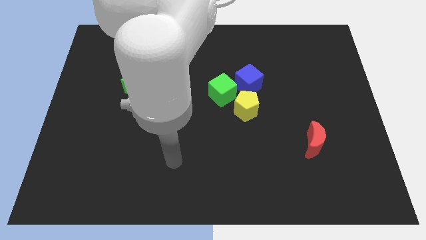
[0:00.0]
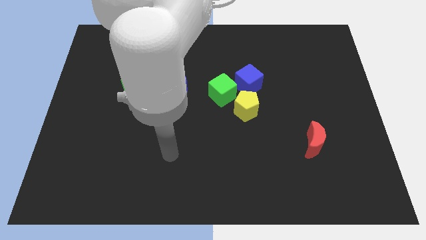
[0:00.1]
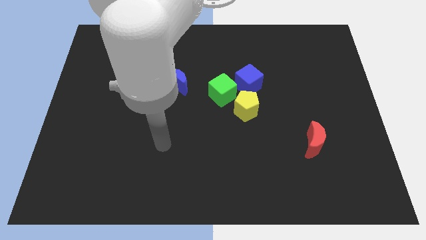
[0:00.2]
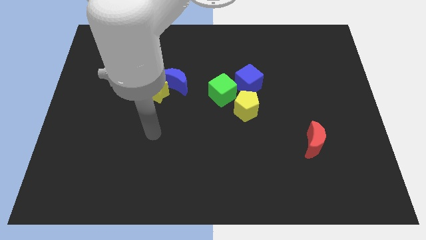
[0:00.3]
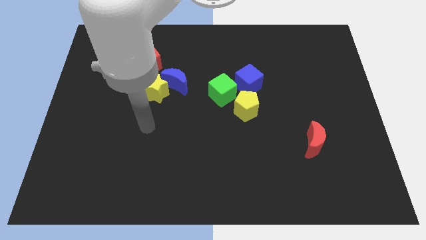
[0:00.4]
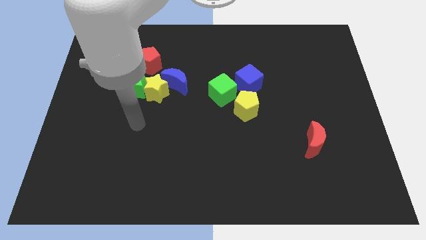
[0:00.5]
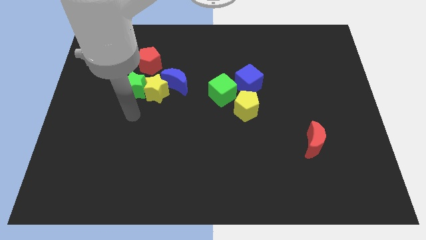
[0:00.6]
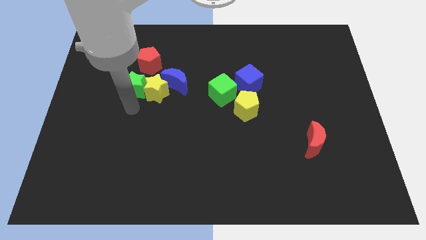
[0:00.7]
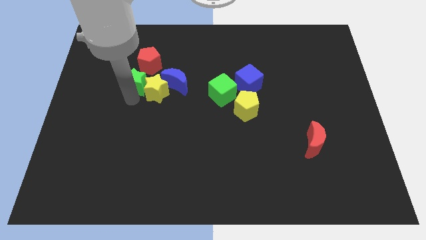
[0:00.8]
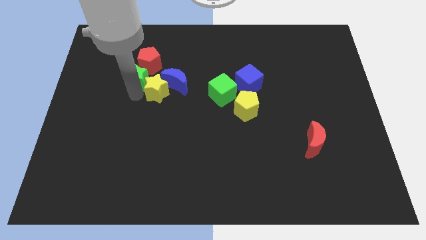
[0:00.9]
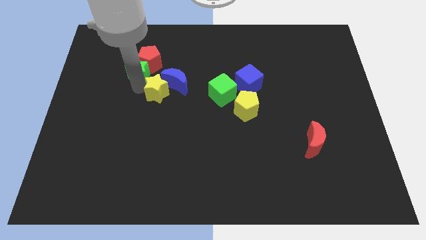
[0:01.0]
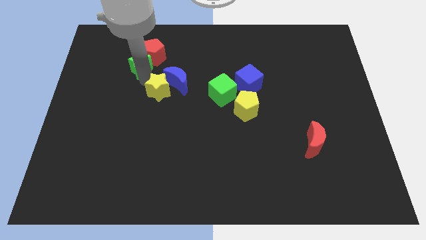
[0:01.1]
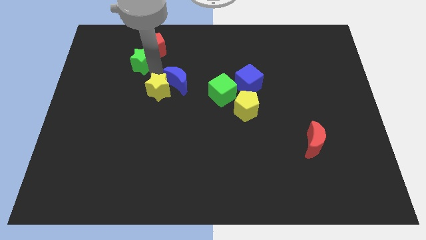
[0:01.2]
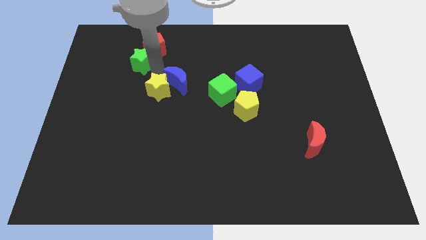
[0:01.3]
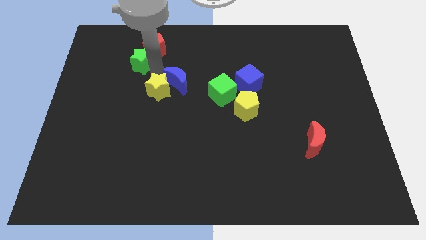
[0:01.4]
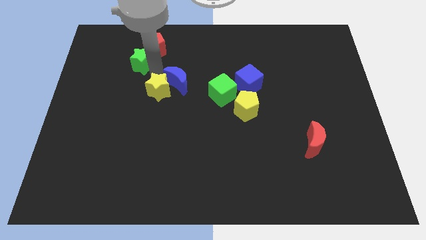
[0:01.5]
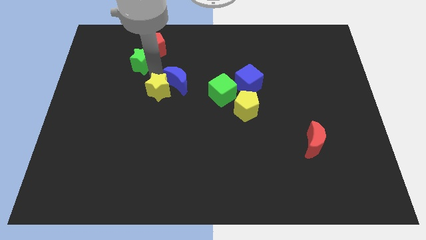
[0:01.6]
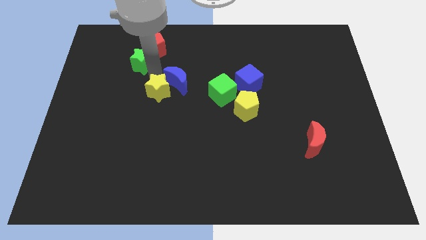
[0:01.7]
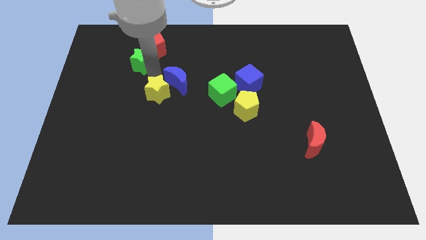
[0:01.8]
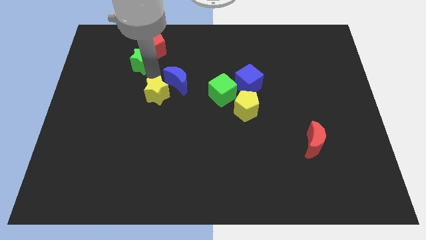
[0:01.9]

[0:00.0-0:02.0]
separate the yellow star from the group of blocks

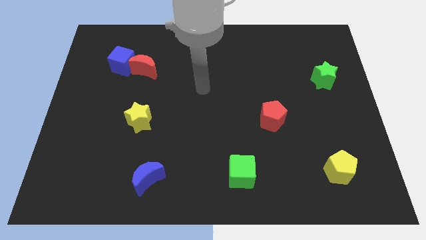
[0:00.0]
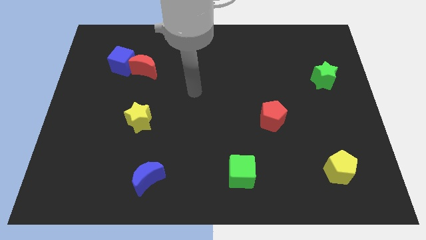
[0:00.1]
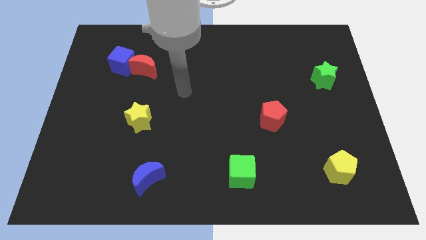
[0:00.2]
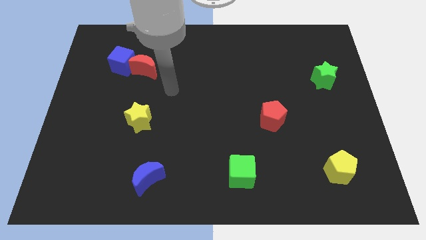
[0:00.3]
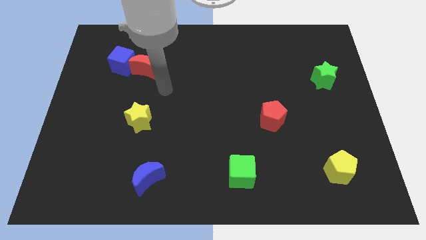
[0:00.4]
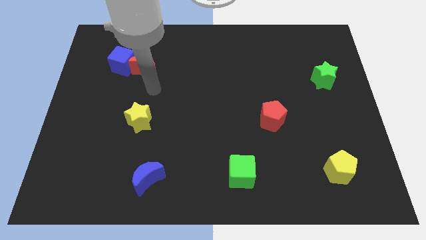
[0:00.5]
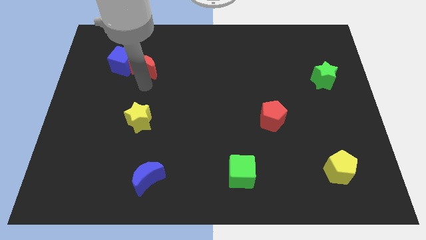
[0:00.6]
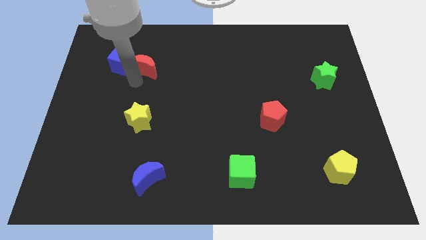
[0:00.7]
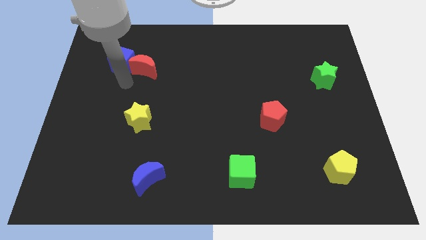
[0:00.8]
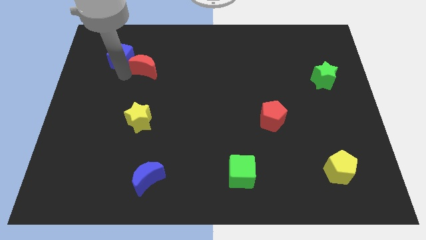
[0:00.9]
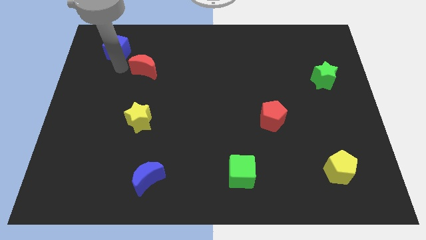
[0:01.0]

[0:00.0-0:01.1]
separate the red moon from the blue cube

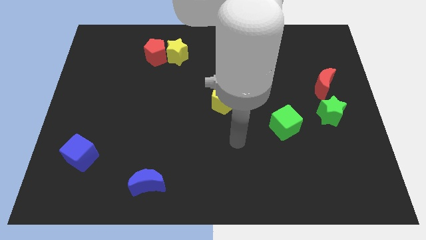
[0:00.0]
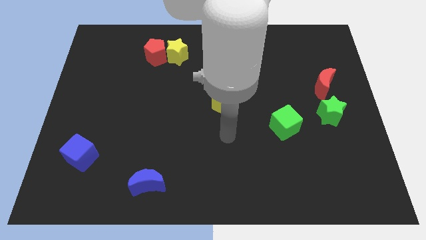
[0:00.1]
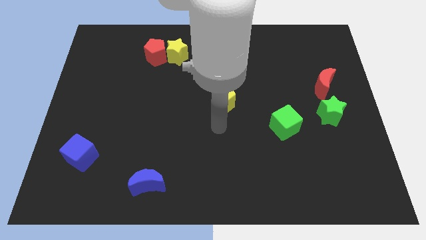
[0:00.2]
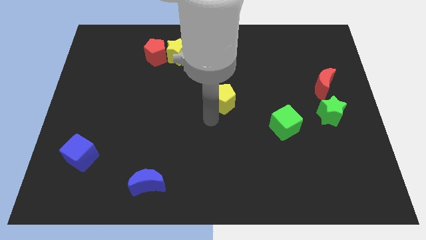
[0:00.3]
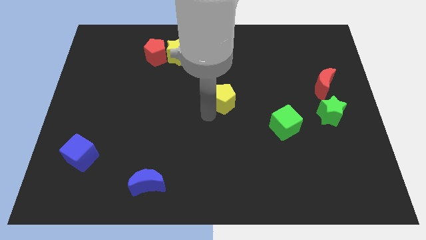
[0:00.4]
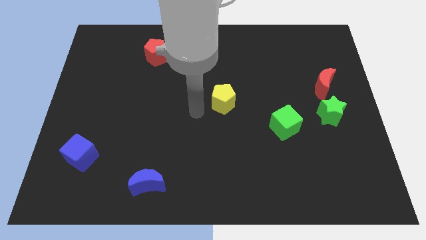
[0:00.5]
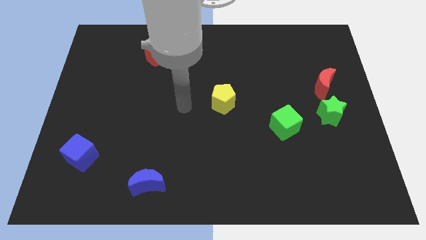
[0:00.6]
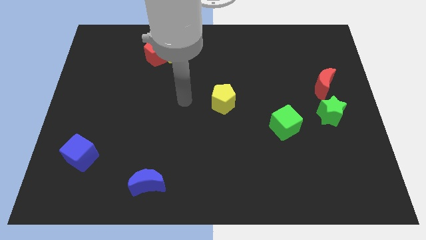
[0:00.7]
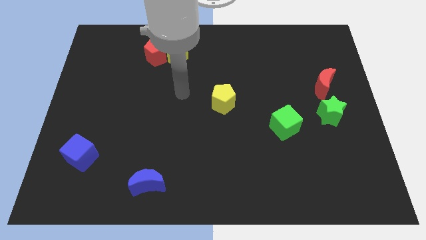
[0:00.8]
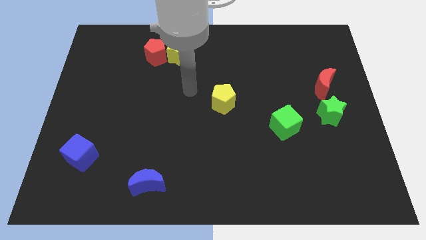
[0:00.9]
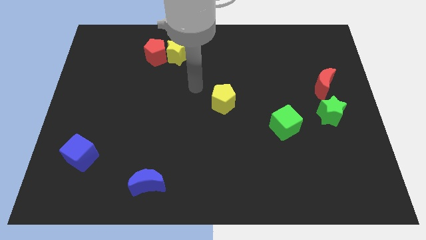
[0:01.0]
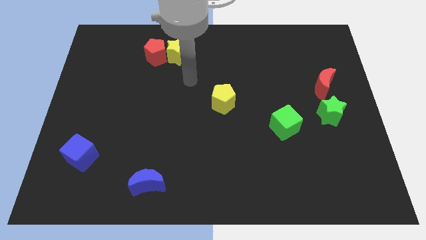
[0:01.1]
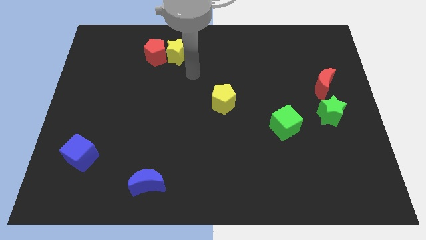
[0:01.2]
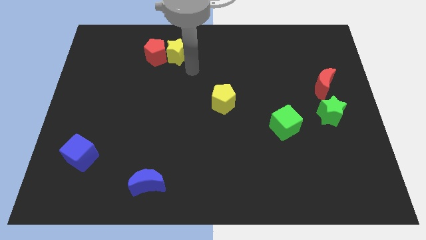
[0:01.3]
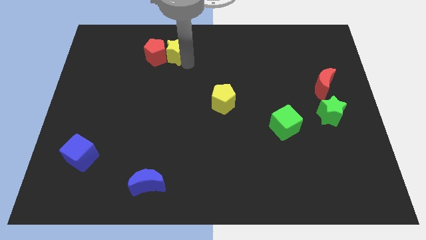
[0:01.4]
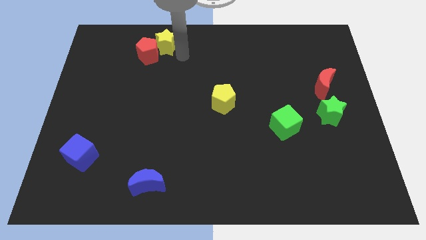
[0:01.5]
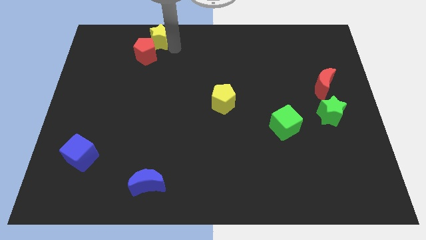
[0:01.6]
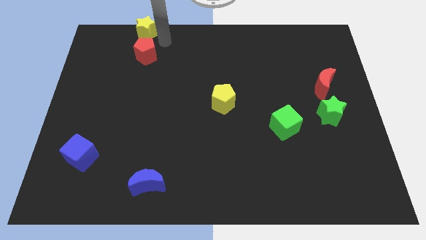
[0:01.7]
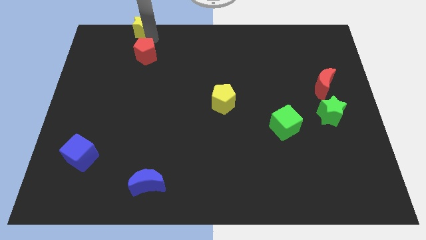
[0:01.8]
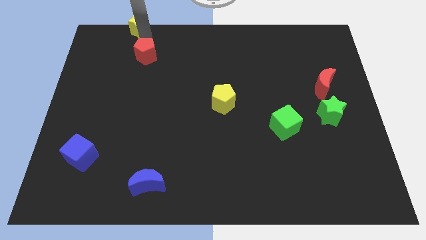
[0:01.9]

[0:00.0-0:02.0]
pull the red pentagon apart from the yellow star

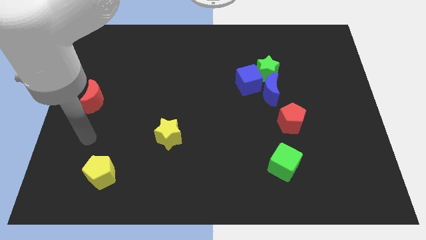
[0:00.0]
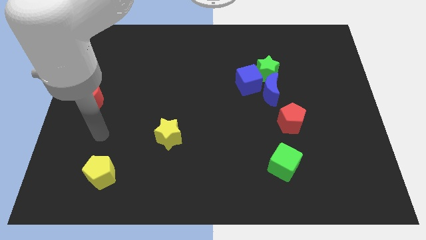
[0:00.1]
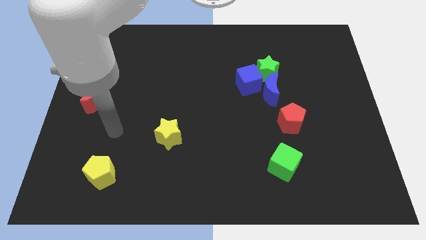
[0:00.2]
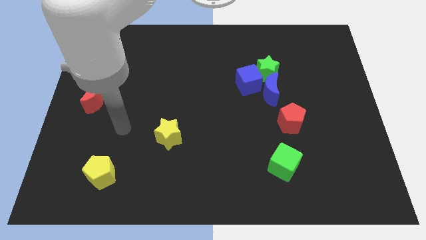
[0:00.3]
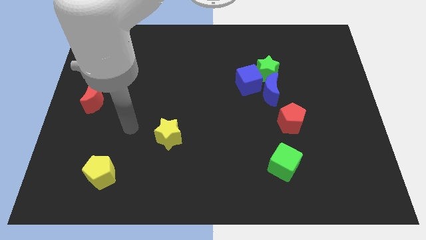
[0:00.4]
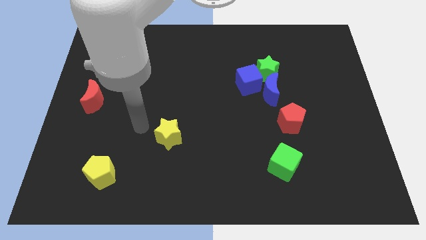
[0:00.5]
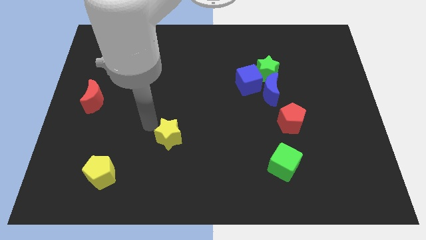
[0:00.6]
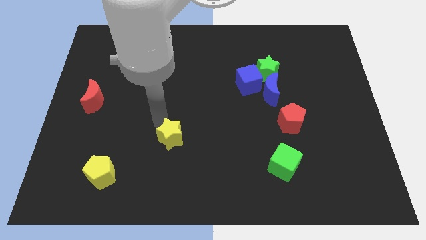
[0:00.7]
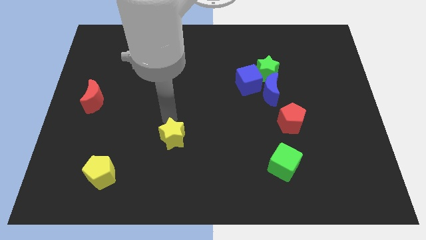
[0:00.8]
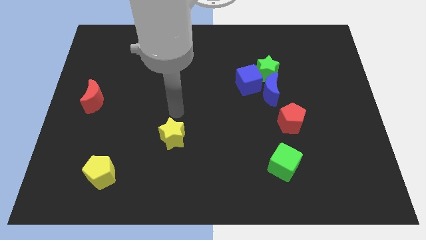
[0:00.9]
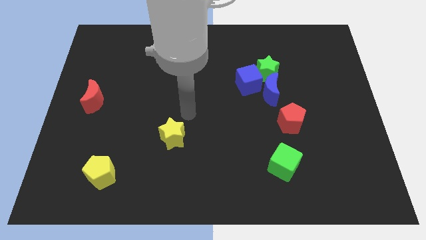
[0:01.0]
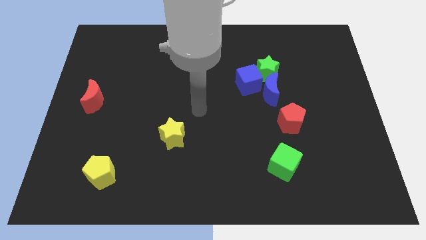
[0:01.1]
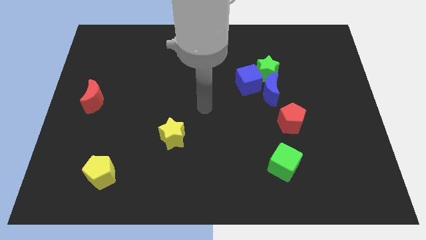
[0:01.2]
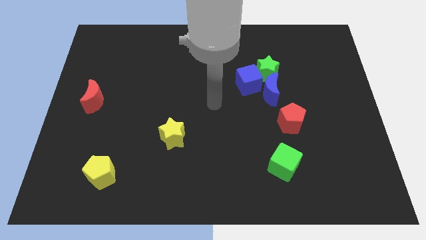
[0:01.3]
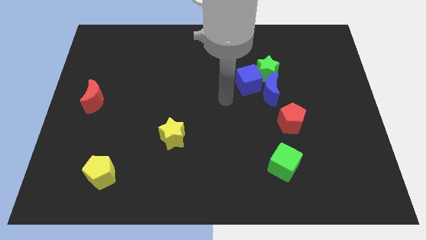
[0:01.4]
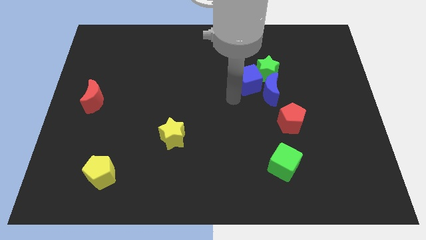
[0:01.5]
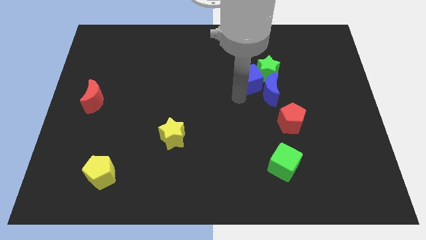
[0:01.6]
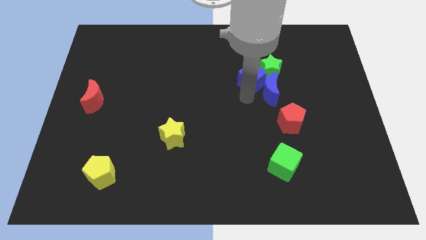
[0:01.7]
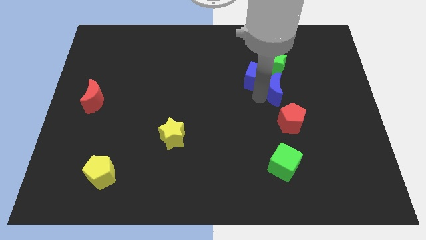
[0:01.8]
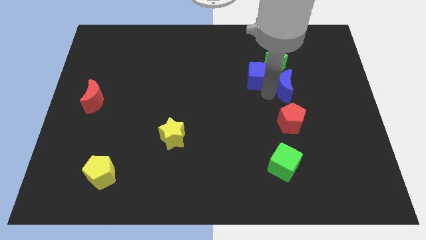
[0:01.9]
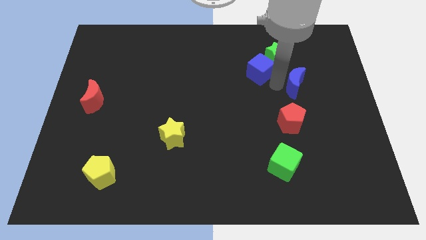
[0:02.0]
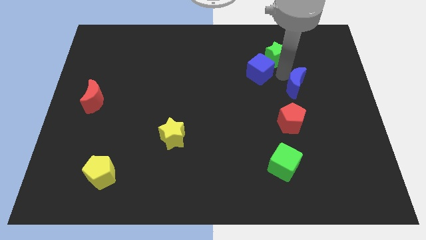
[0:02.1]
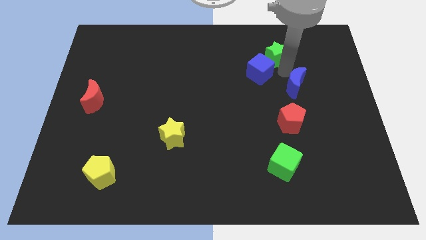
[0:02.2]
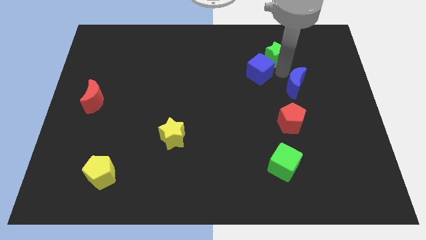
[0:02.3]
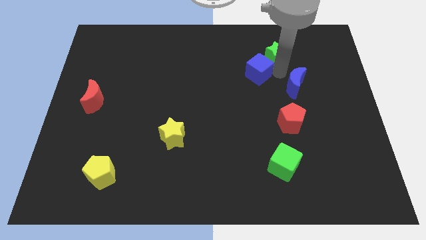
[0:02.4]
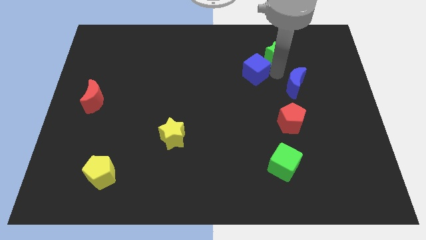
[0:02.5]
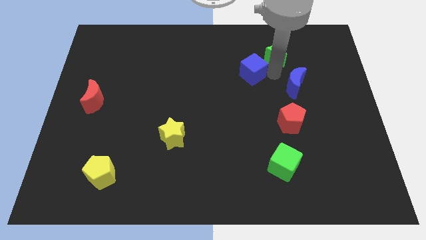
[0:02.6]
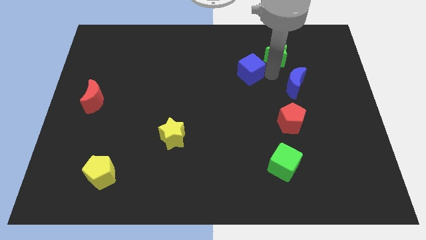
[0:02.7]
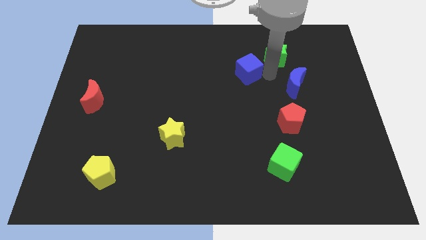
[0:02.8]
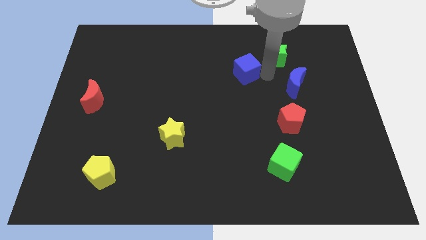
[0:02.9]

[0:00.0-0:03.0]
separate the blue cube from the green star and blue moon

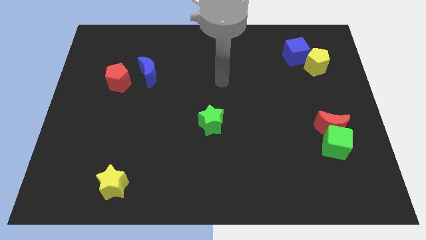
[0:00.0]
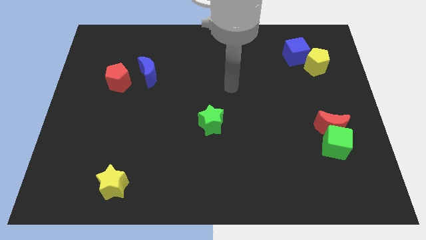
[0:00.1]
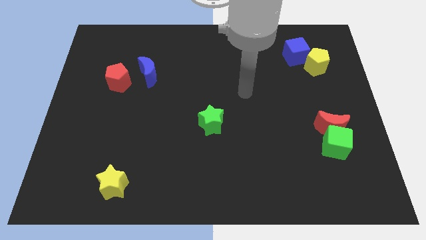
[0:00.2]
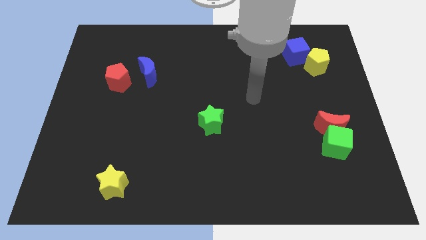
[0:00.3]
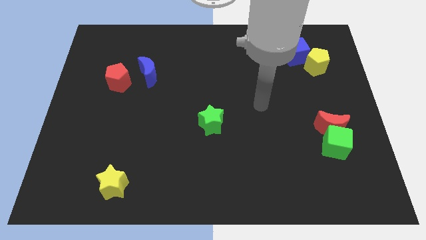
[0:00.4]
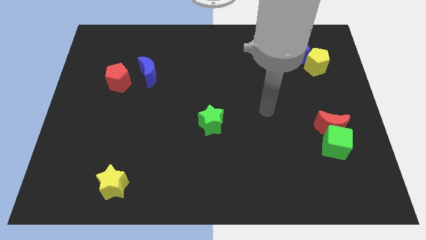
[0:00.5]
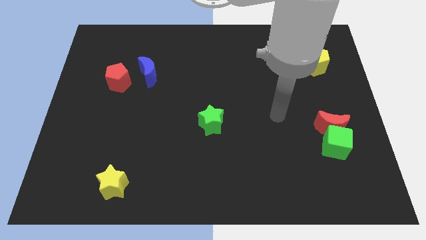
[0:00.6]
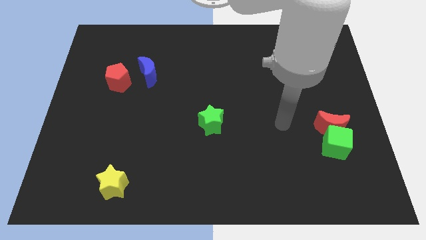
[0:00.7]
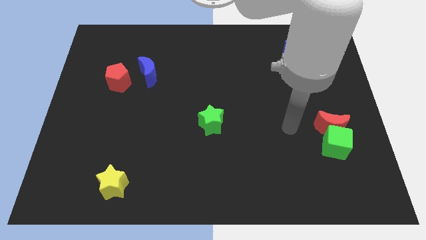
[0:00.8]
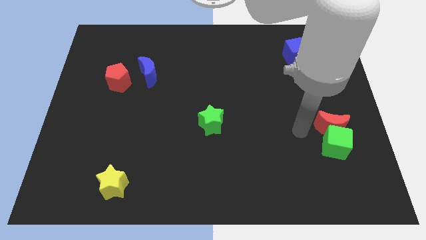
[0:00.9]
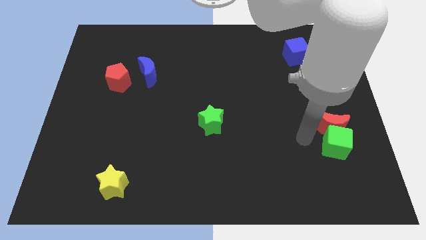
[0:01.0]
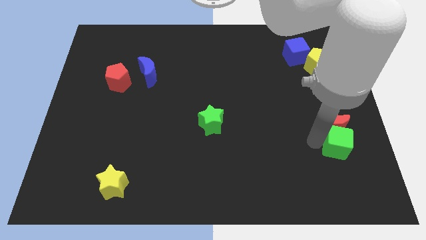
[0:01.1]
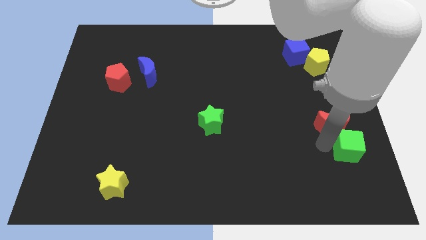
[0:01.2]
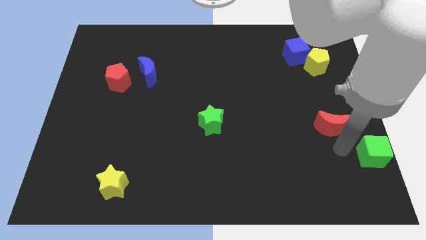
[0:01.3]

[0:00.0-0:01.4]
pull the red moon apart from the green cube
